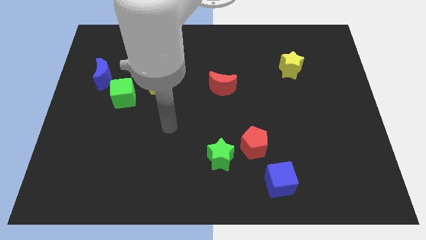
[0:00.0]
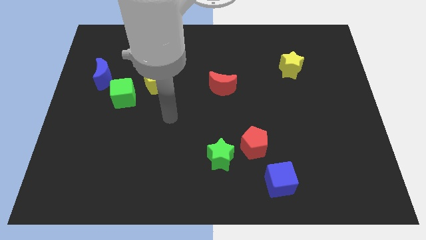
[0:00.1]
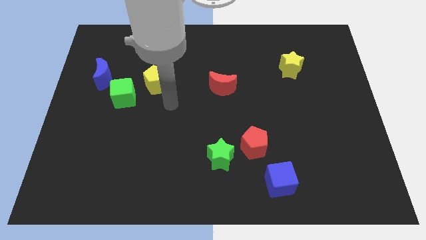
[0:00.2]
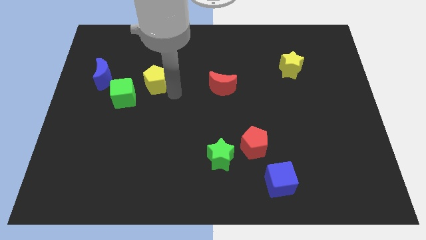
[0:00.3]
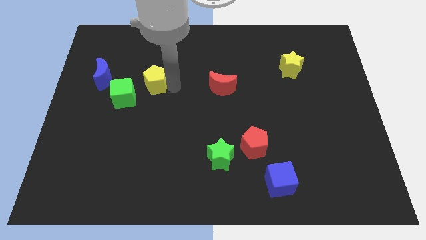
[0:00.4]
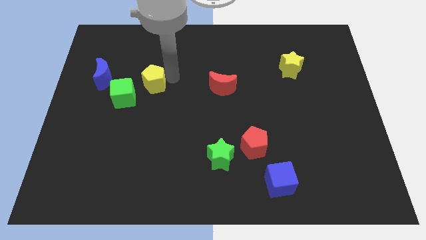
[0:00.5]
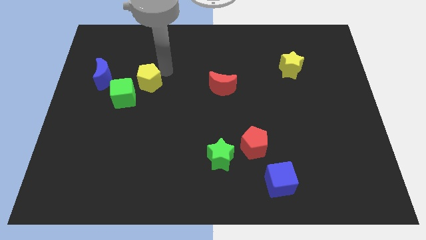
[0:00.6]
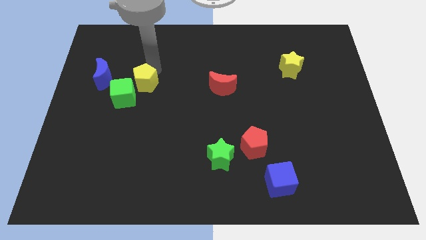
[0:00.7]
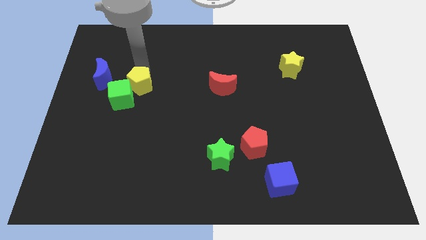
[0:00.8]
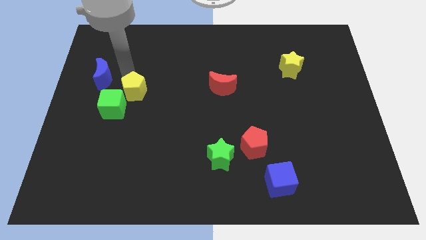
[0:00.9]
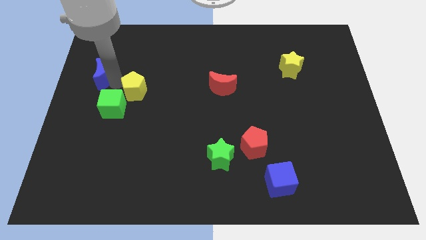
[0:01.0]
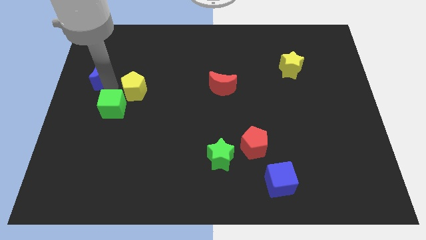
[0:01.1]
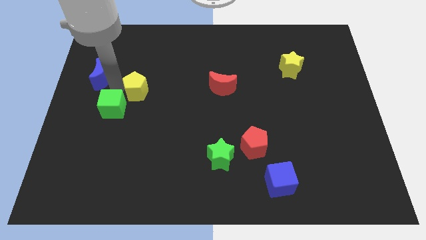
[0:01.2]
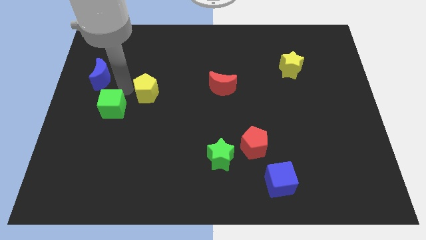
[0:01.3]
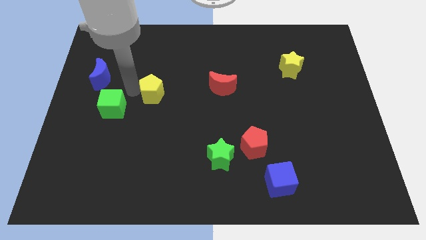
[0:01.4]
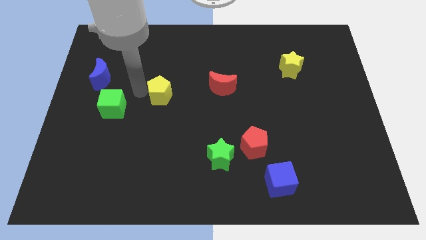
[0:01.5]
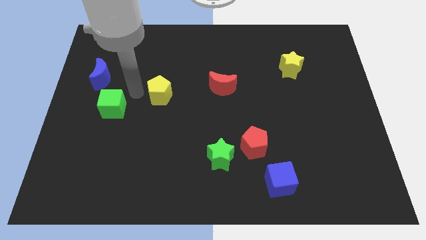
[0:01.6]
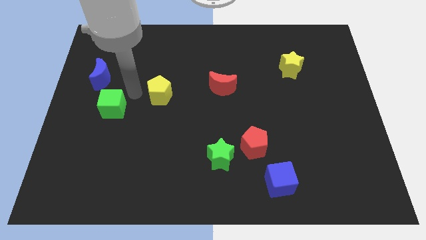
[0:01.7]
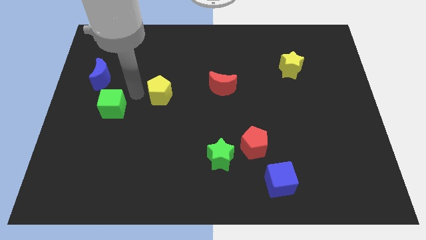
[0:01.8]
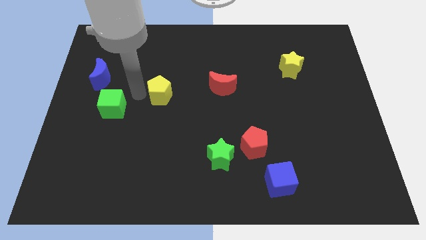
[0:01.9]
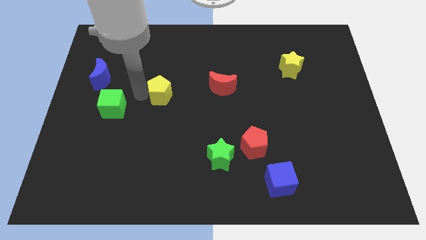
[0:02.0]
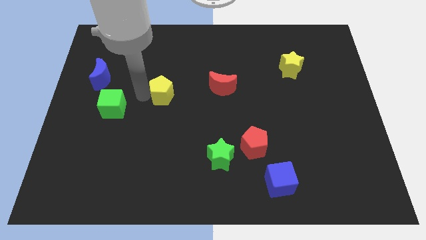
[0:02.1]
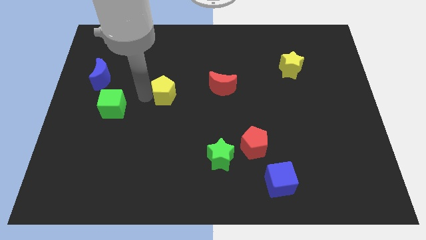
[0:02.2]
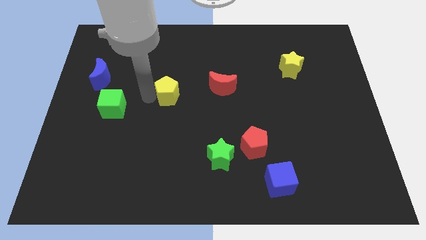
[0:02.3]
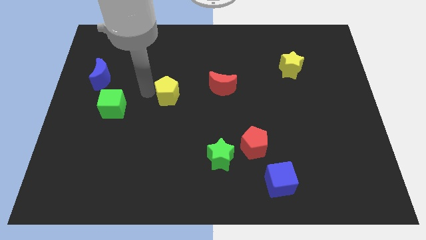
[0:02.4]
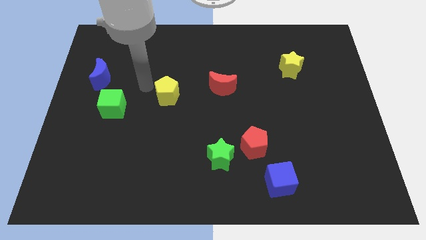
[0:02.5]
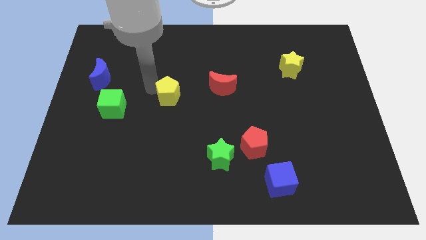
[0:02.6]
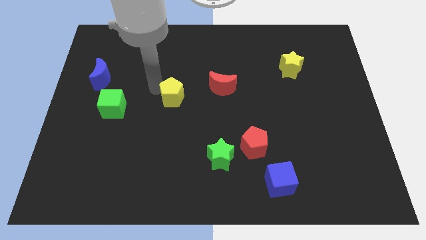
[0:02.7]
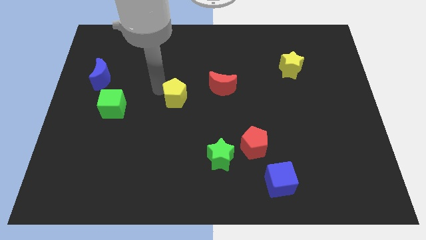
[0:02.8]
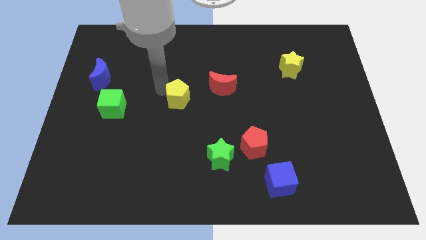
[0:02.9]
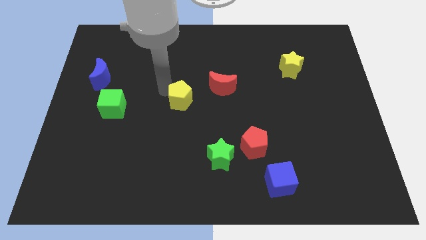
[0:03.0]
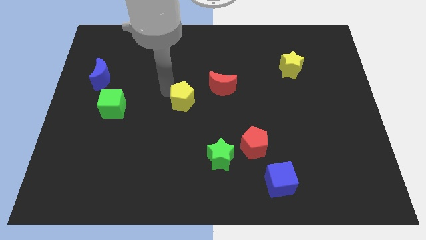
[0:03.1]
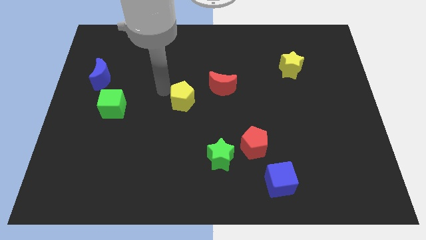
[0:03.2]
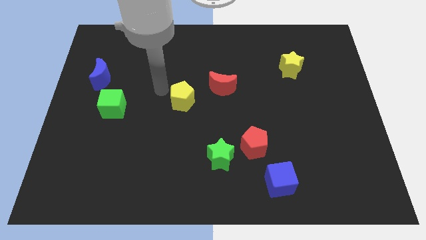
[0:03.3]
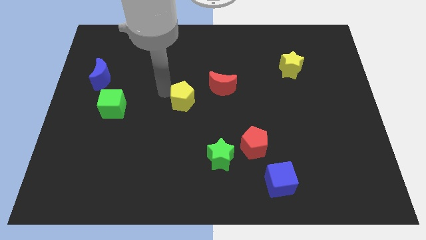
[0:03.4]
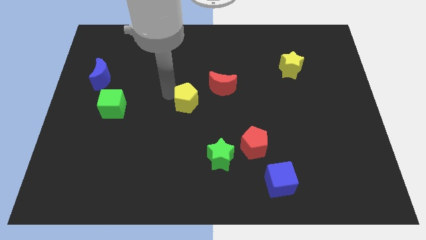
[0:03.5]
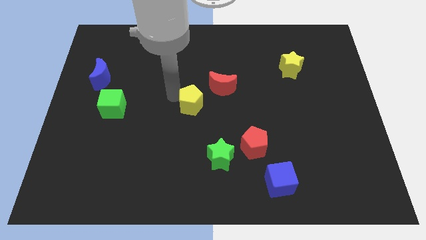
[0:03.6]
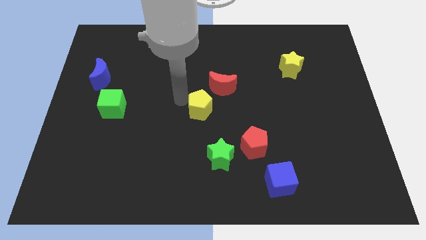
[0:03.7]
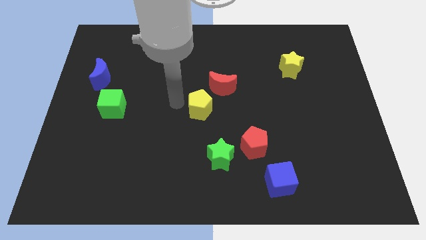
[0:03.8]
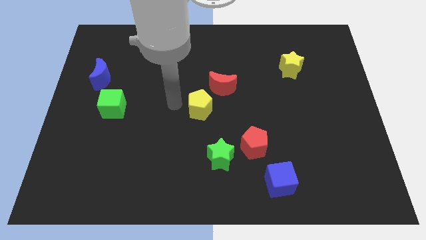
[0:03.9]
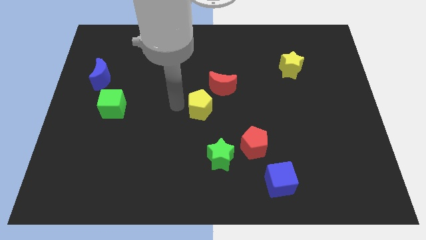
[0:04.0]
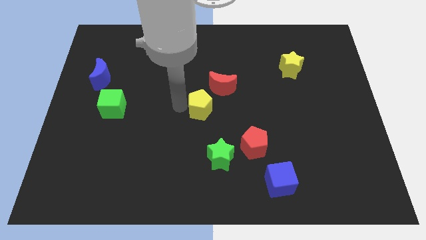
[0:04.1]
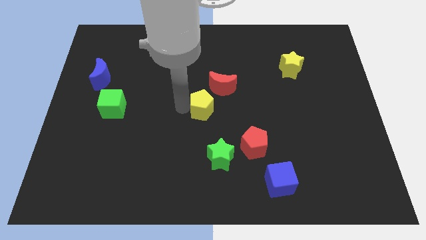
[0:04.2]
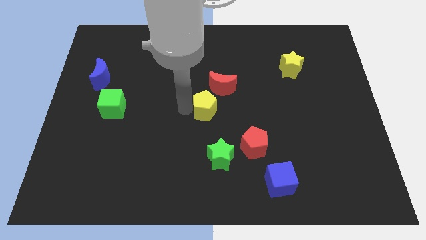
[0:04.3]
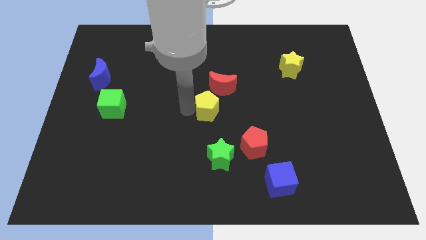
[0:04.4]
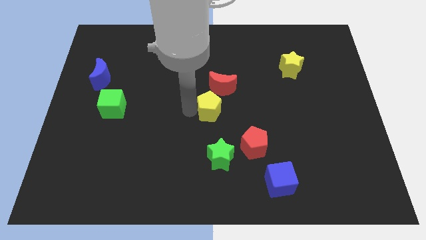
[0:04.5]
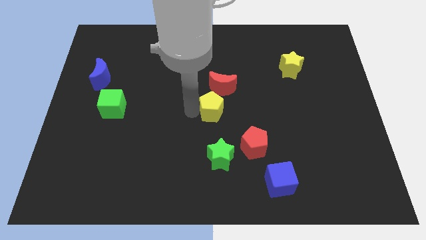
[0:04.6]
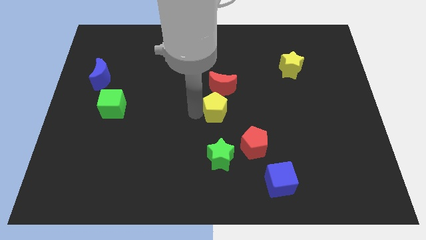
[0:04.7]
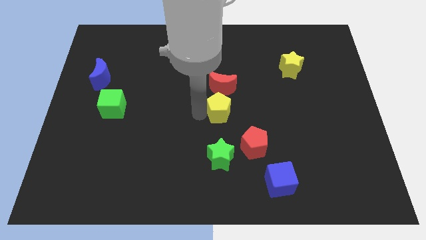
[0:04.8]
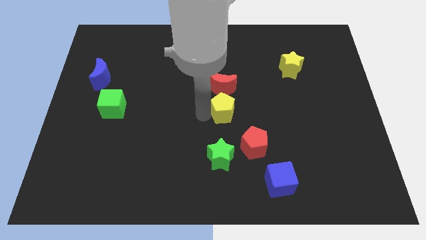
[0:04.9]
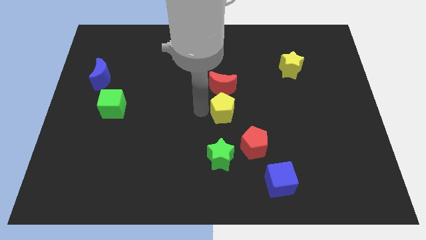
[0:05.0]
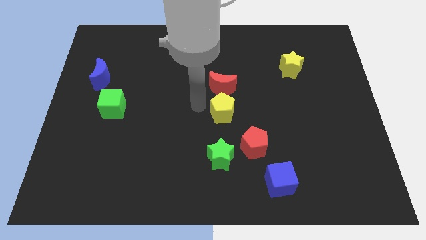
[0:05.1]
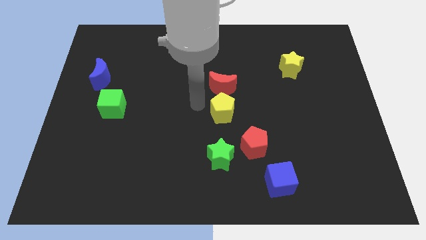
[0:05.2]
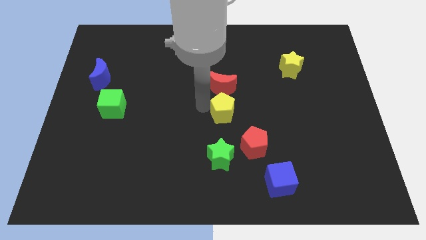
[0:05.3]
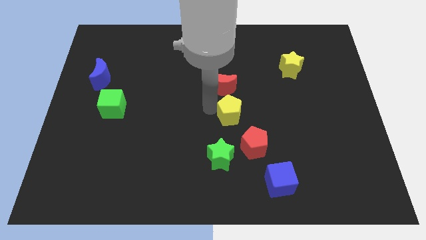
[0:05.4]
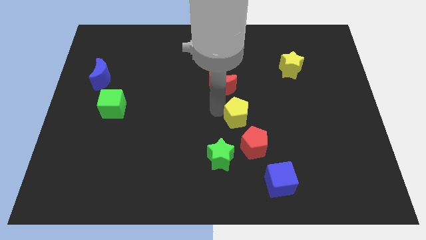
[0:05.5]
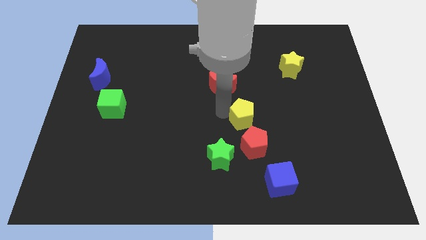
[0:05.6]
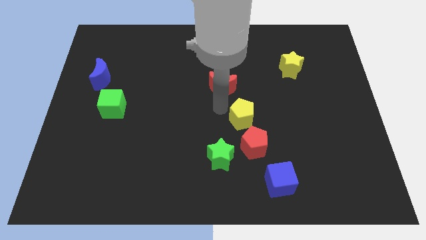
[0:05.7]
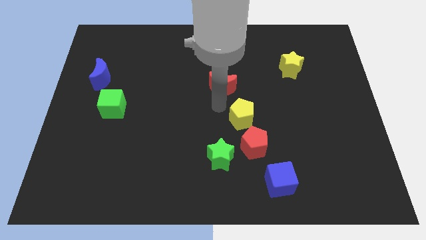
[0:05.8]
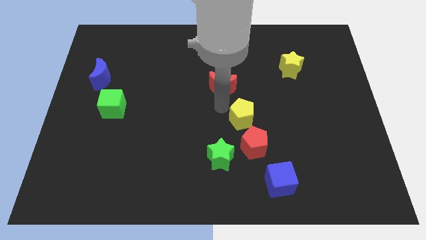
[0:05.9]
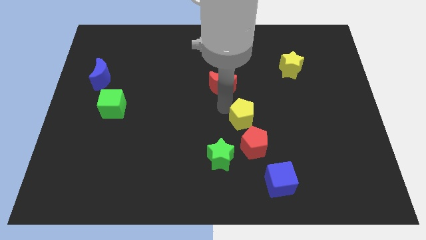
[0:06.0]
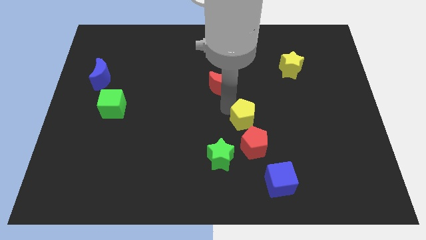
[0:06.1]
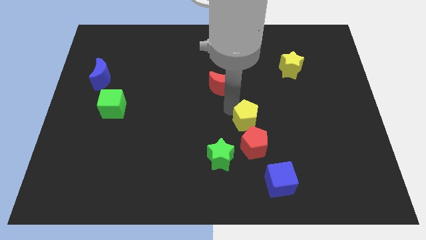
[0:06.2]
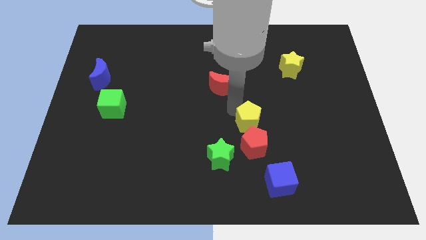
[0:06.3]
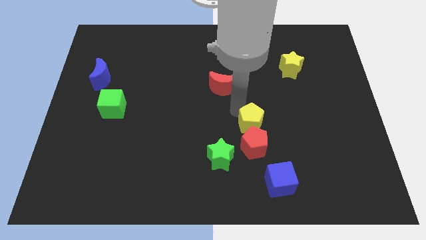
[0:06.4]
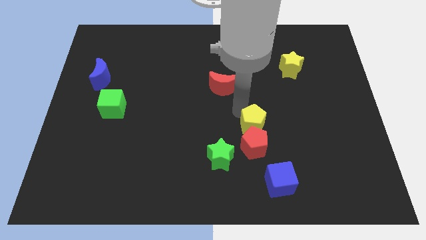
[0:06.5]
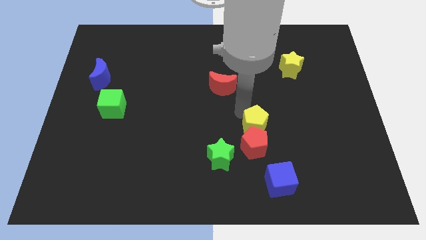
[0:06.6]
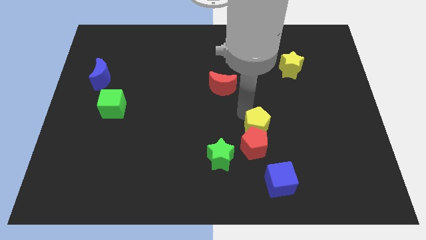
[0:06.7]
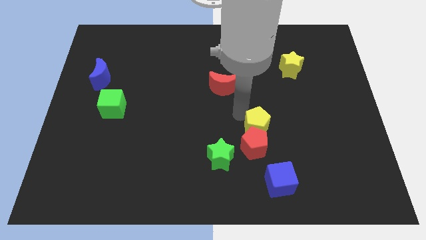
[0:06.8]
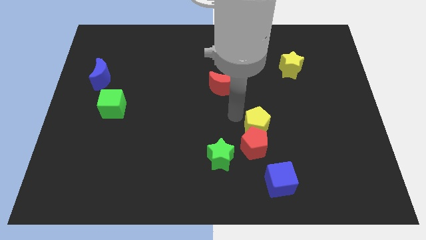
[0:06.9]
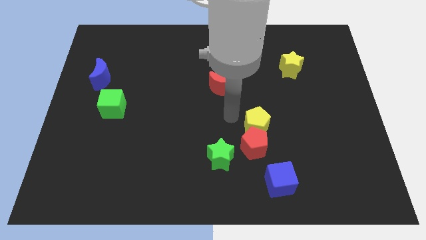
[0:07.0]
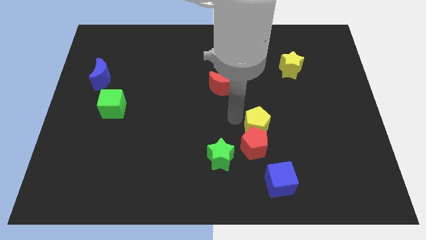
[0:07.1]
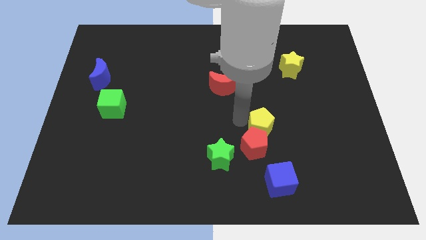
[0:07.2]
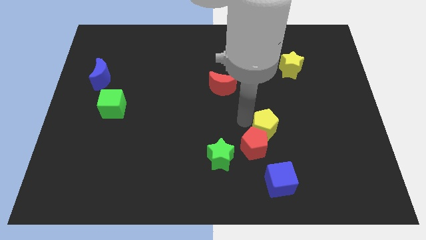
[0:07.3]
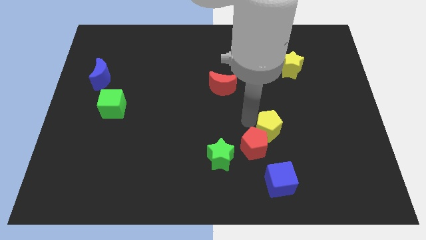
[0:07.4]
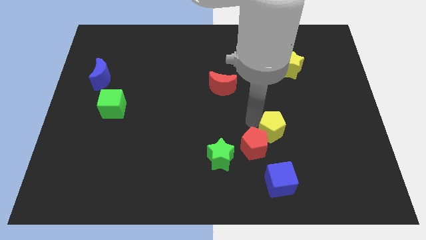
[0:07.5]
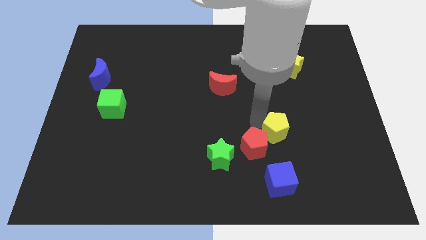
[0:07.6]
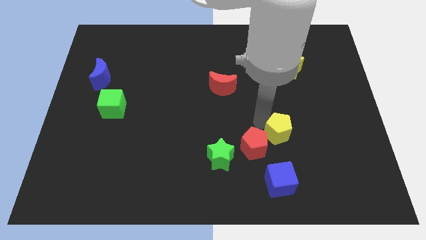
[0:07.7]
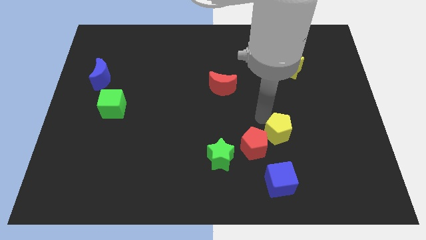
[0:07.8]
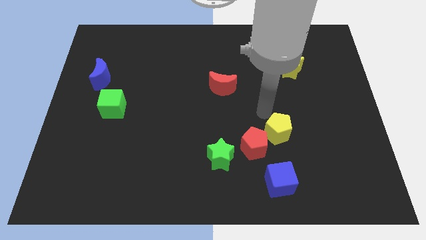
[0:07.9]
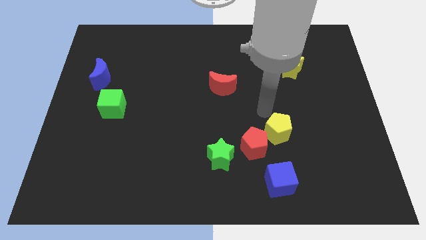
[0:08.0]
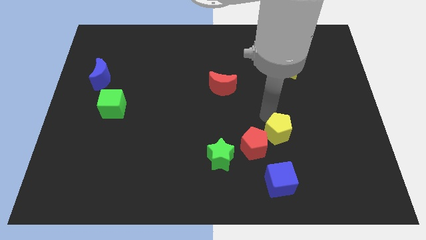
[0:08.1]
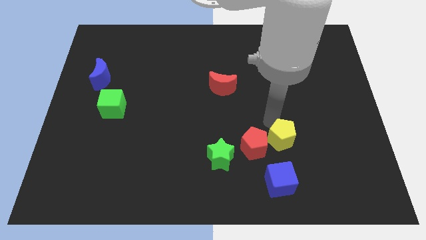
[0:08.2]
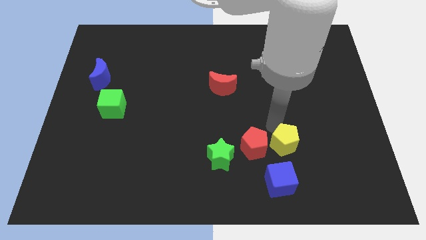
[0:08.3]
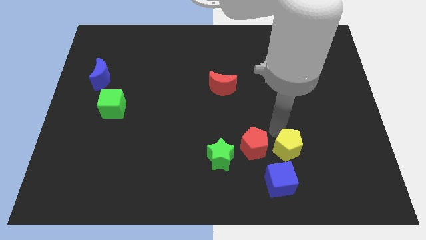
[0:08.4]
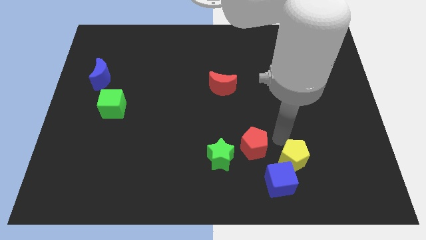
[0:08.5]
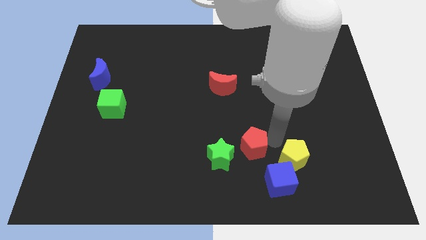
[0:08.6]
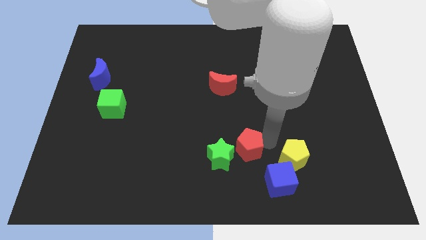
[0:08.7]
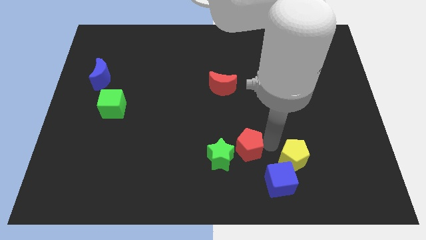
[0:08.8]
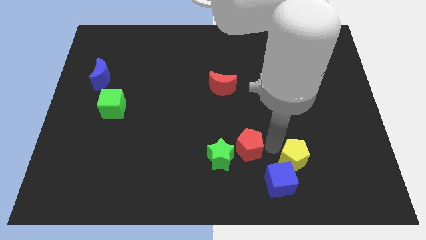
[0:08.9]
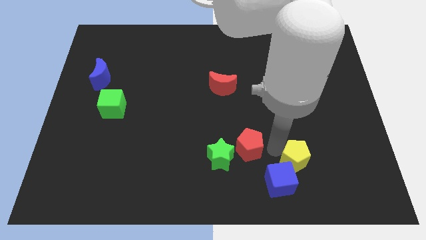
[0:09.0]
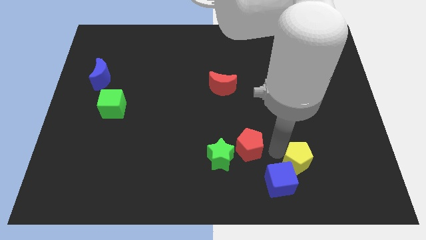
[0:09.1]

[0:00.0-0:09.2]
put the yellow pentagon to the right of the blue cube
